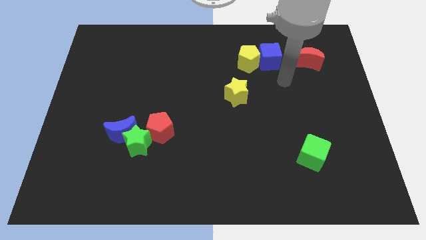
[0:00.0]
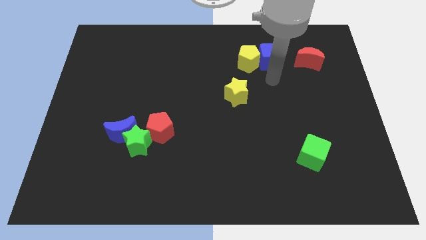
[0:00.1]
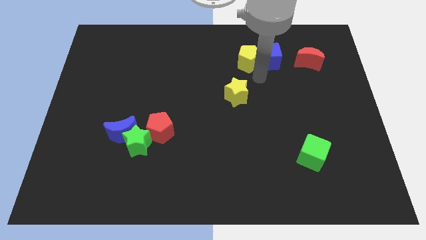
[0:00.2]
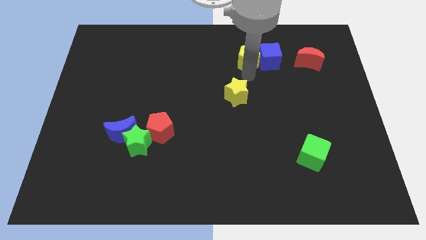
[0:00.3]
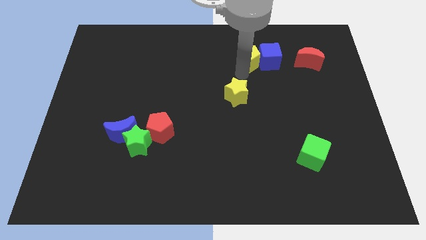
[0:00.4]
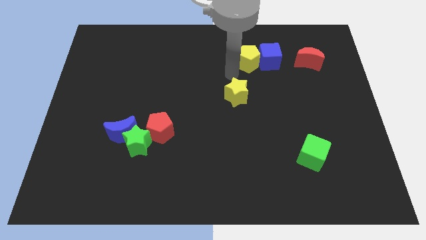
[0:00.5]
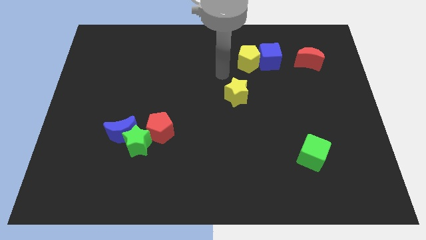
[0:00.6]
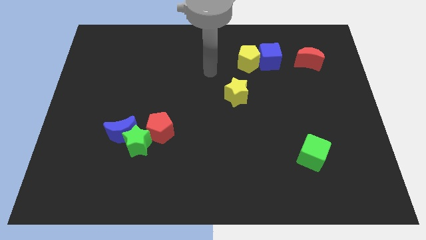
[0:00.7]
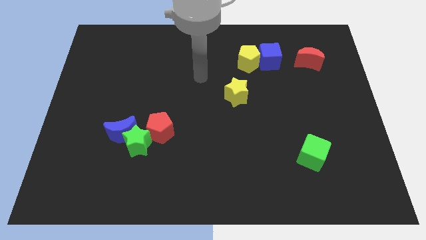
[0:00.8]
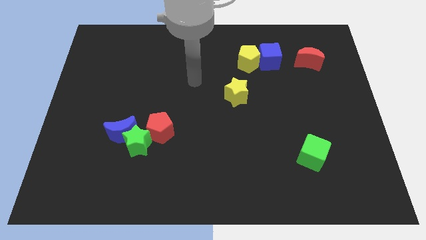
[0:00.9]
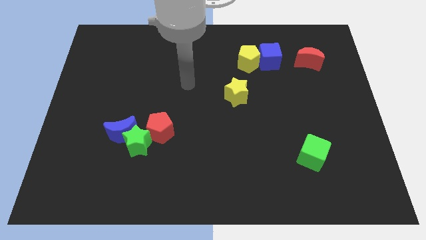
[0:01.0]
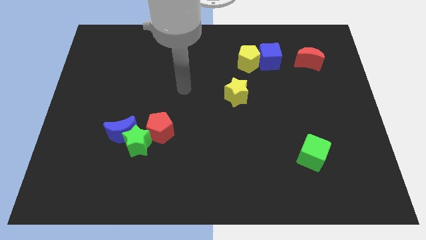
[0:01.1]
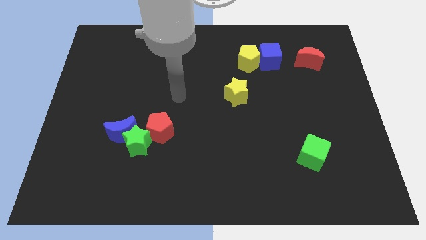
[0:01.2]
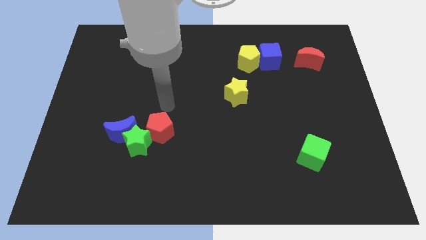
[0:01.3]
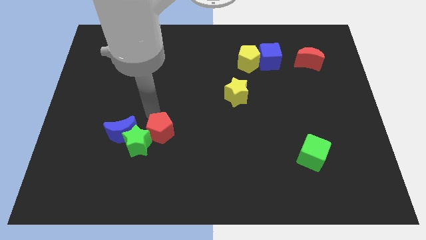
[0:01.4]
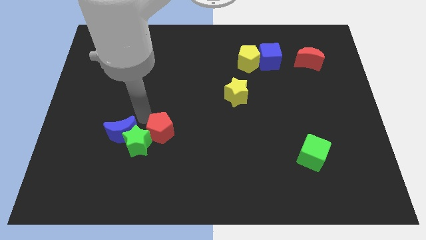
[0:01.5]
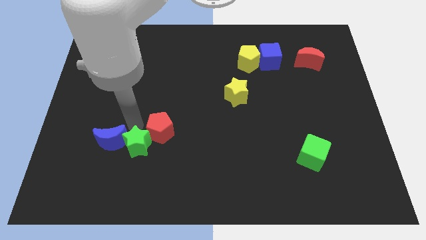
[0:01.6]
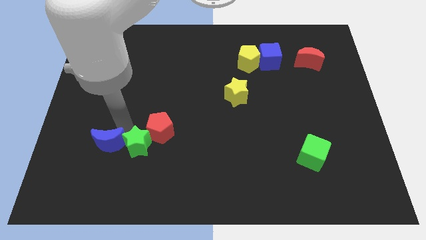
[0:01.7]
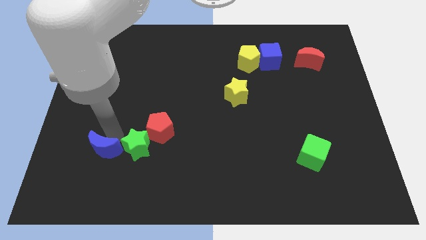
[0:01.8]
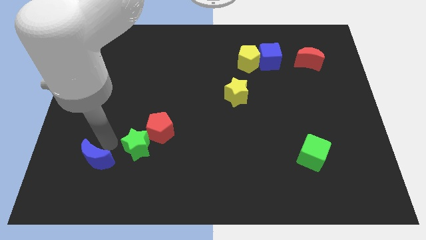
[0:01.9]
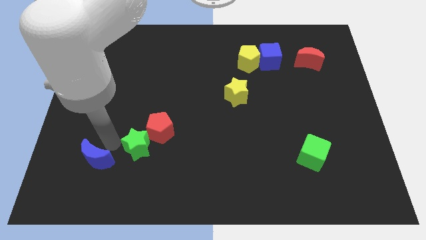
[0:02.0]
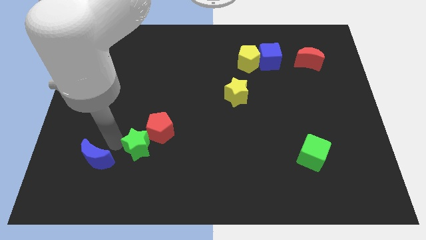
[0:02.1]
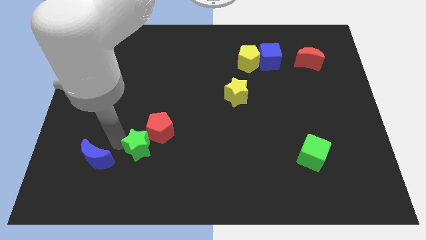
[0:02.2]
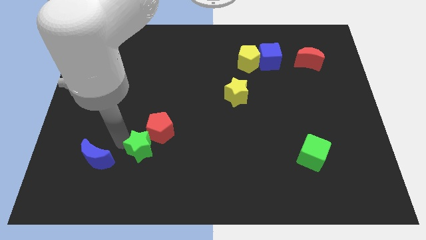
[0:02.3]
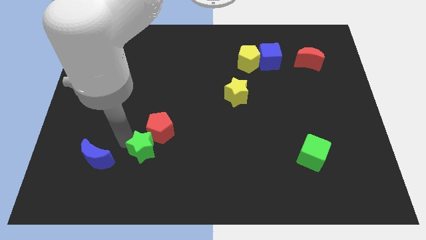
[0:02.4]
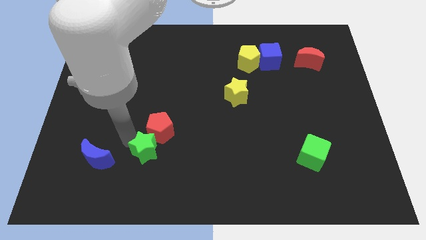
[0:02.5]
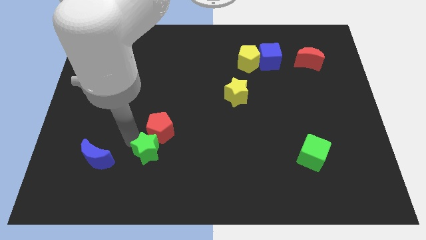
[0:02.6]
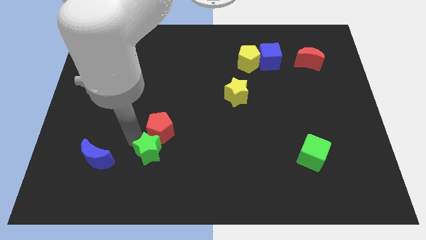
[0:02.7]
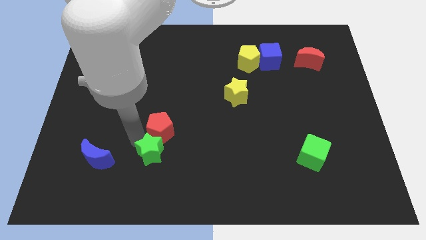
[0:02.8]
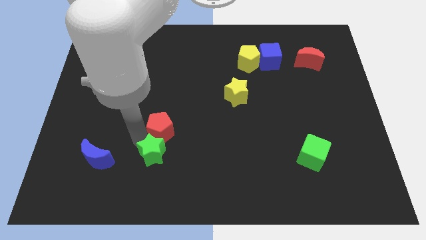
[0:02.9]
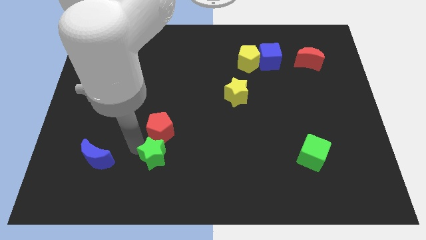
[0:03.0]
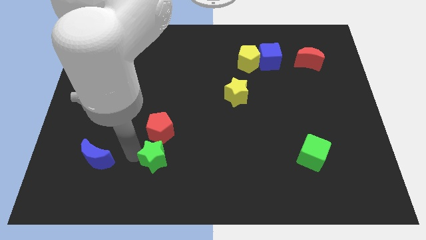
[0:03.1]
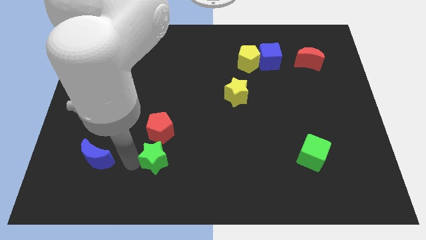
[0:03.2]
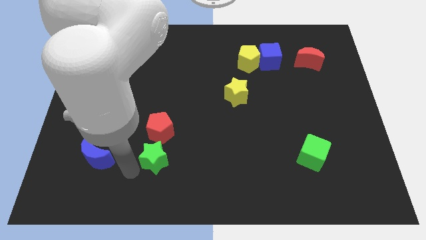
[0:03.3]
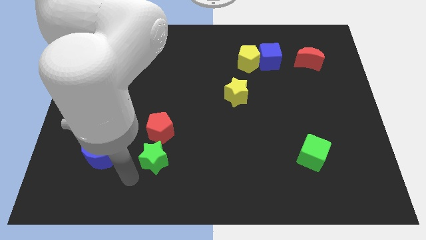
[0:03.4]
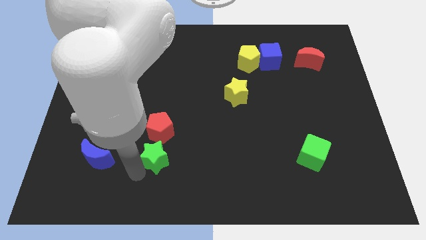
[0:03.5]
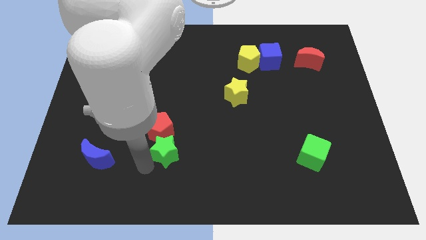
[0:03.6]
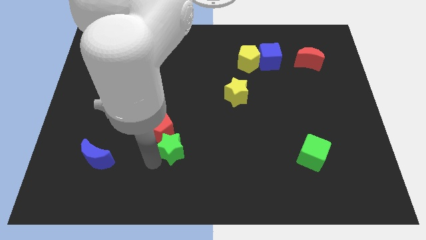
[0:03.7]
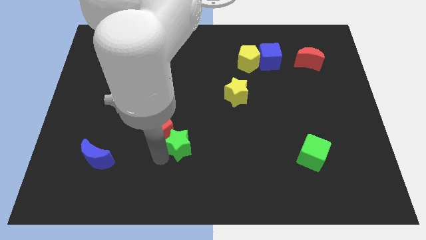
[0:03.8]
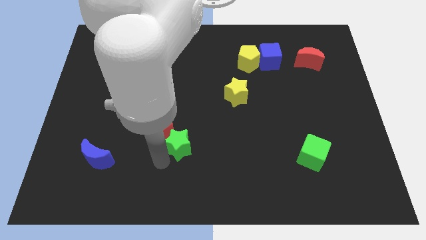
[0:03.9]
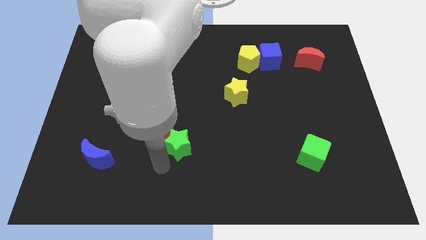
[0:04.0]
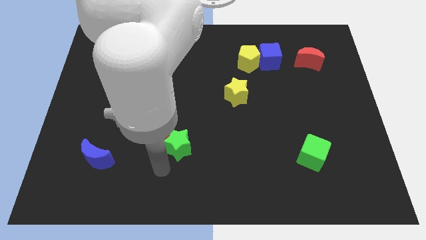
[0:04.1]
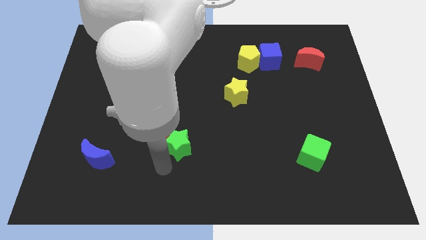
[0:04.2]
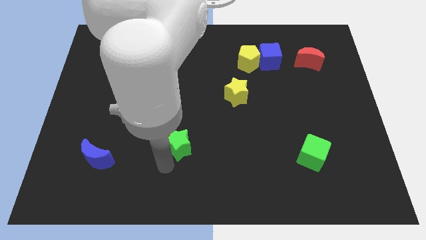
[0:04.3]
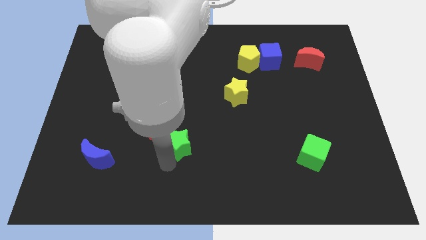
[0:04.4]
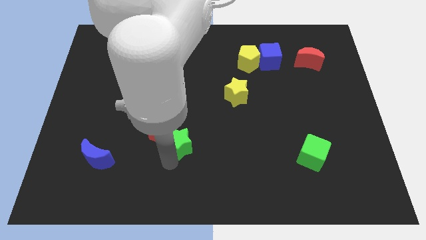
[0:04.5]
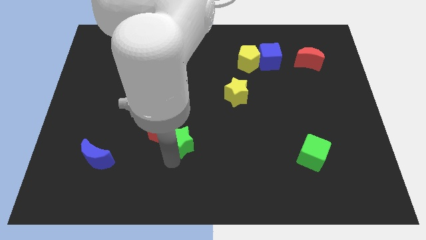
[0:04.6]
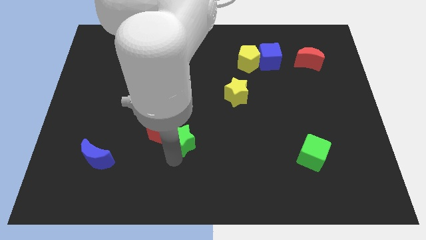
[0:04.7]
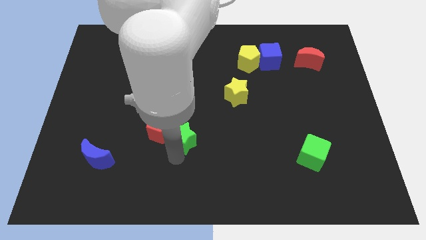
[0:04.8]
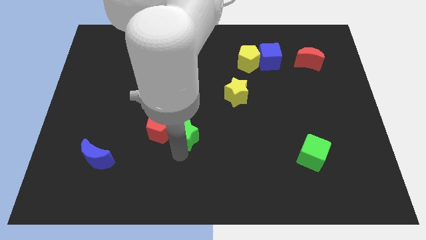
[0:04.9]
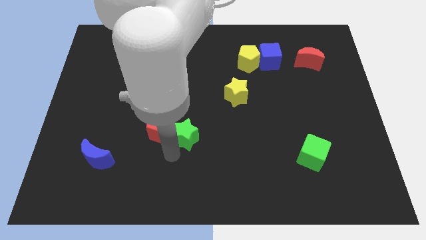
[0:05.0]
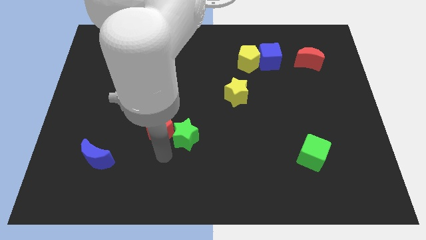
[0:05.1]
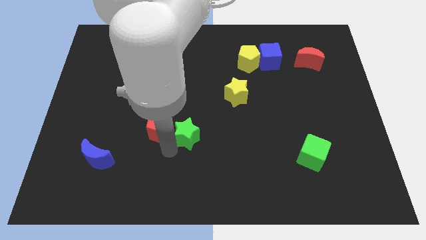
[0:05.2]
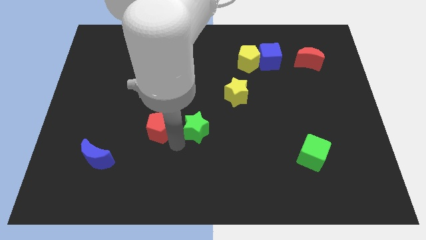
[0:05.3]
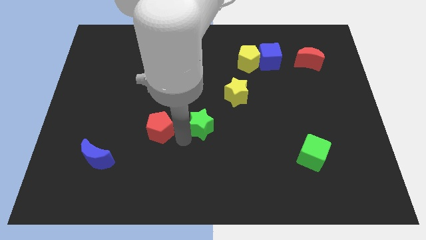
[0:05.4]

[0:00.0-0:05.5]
put the green star to the bottom left side of the yellow star

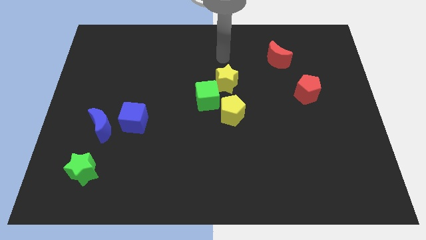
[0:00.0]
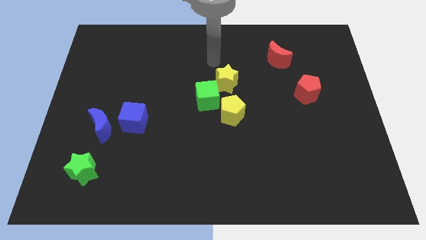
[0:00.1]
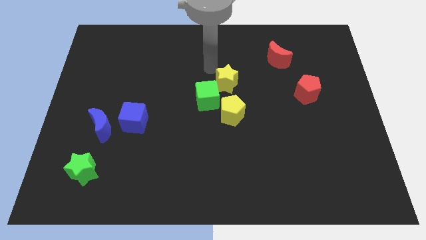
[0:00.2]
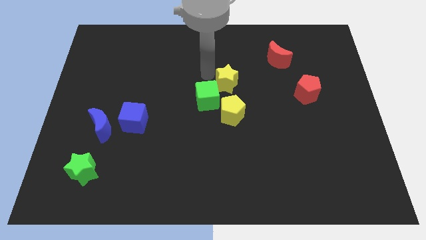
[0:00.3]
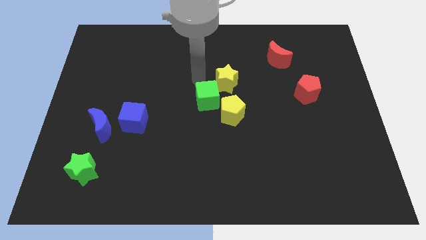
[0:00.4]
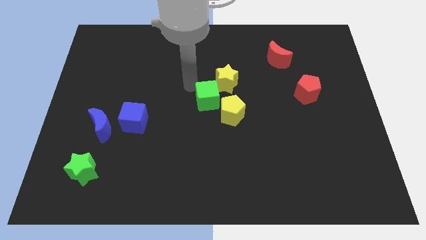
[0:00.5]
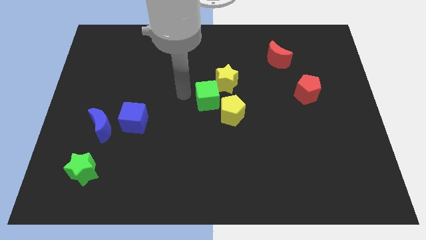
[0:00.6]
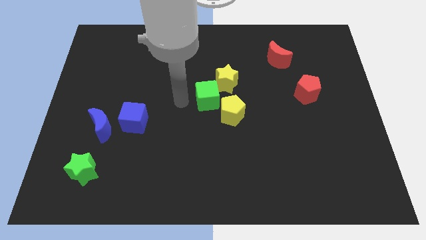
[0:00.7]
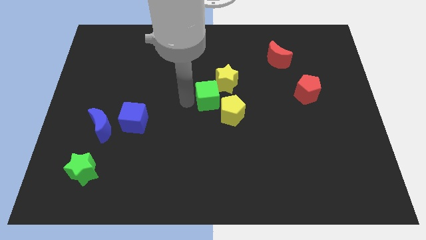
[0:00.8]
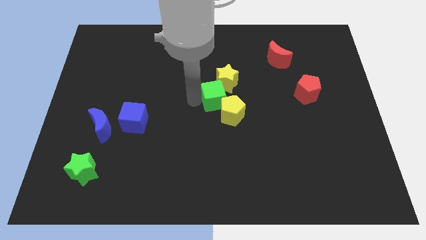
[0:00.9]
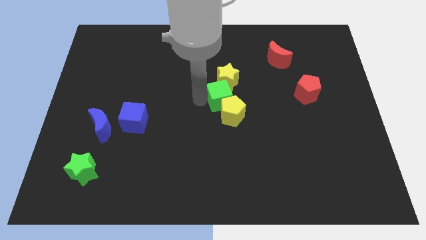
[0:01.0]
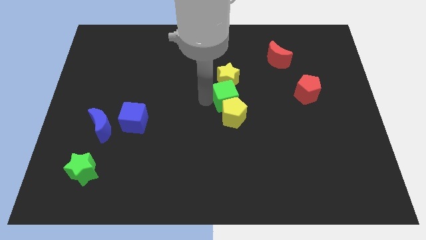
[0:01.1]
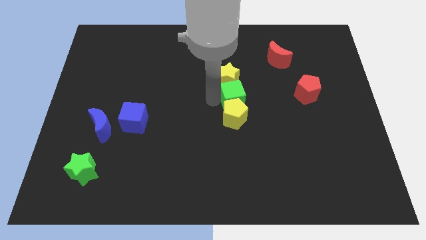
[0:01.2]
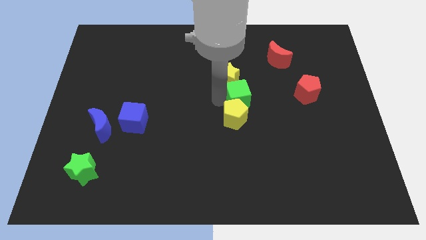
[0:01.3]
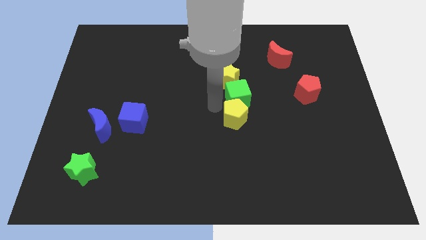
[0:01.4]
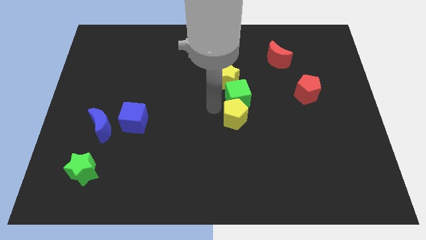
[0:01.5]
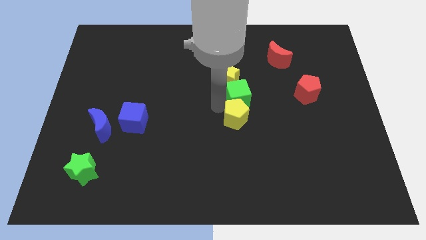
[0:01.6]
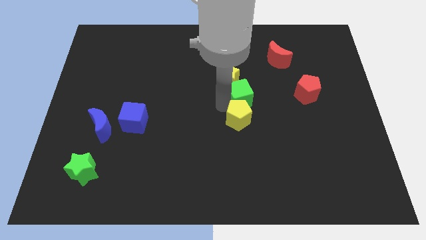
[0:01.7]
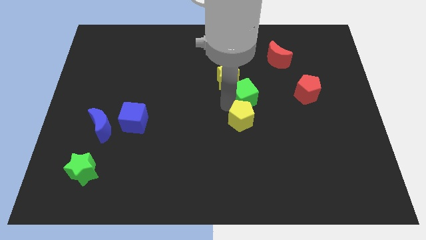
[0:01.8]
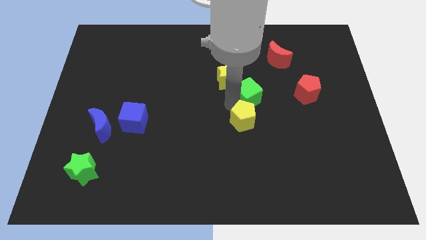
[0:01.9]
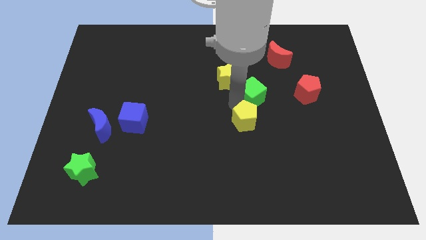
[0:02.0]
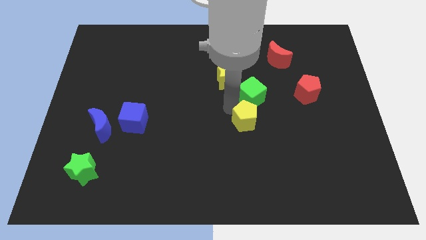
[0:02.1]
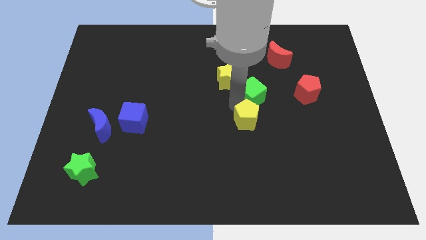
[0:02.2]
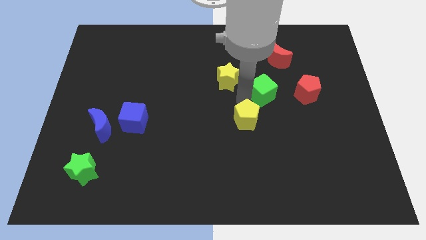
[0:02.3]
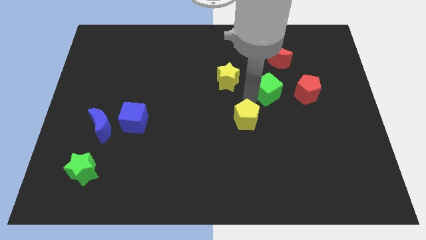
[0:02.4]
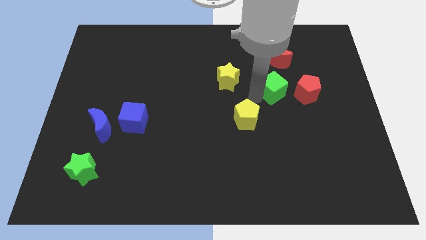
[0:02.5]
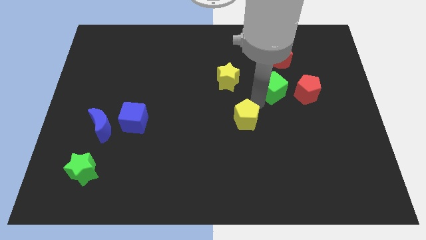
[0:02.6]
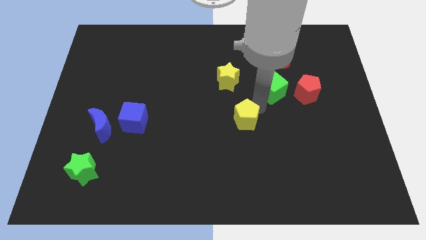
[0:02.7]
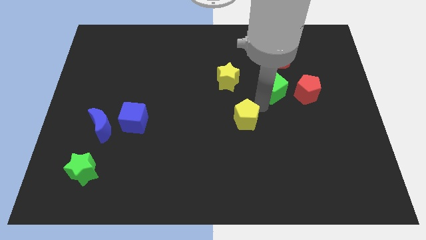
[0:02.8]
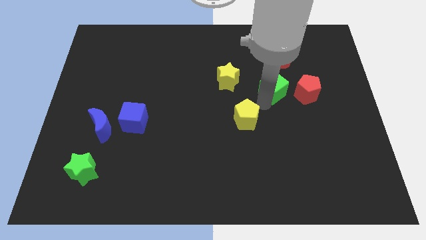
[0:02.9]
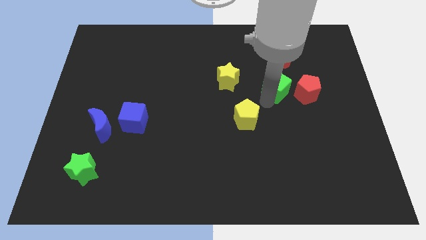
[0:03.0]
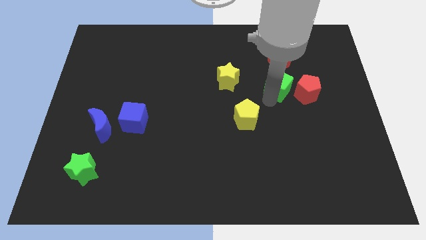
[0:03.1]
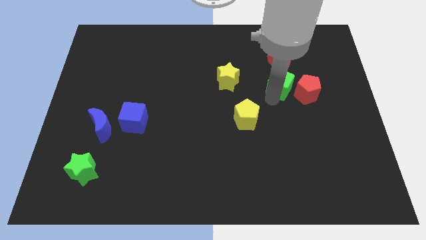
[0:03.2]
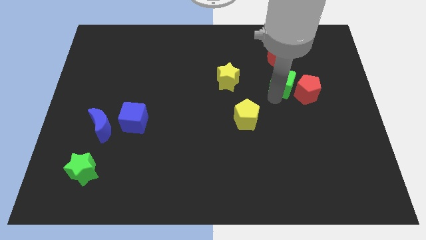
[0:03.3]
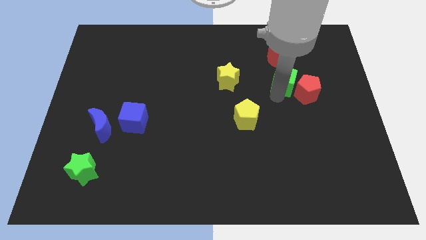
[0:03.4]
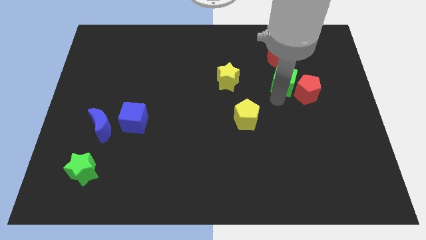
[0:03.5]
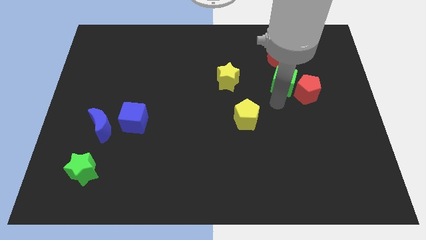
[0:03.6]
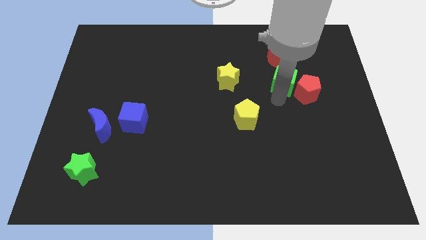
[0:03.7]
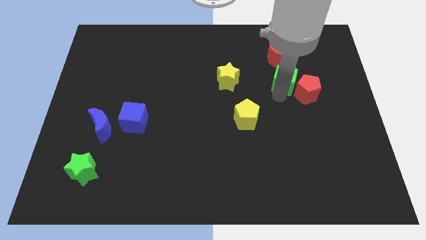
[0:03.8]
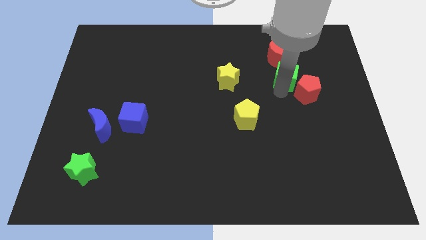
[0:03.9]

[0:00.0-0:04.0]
slide the green cube to the top side of the red pentagon
